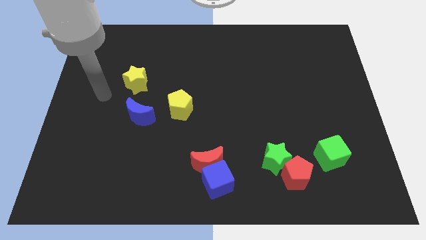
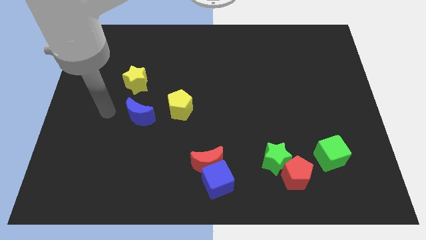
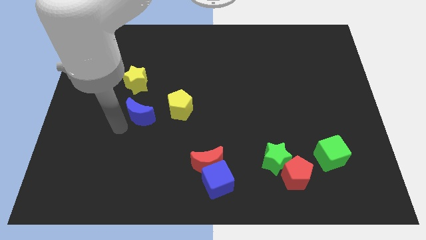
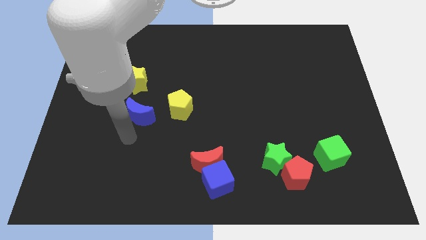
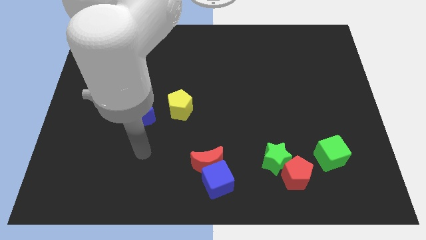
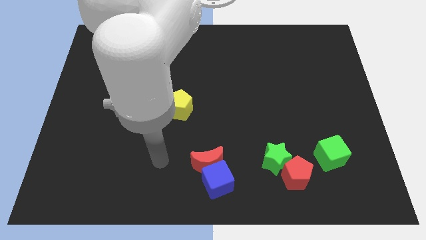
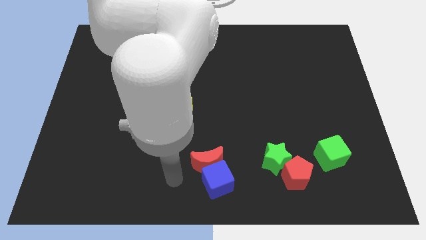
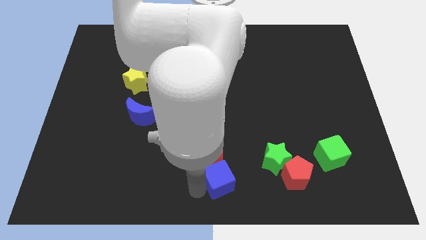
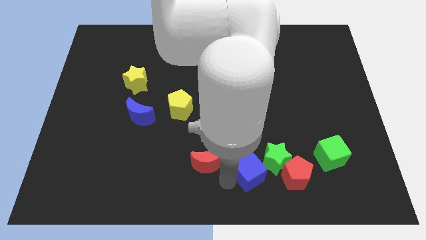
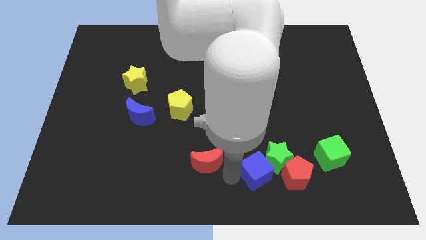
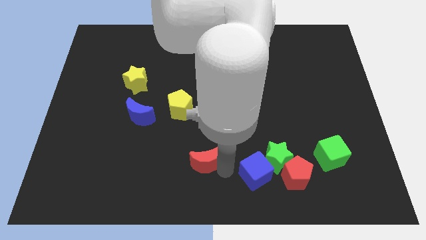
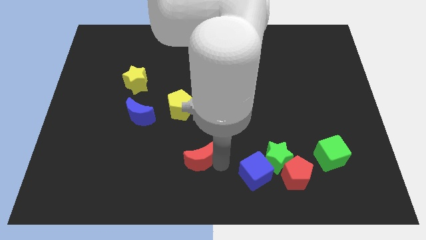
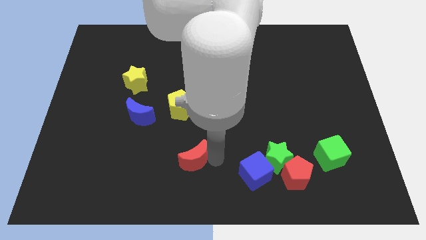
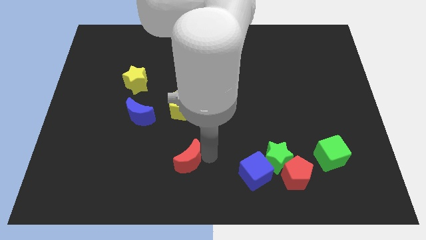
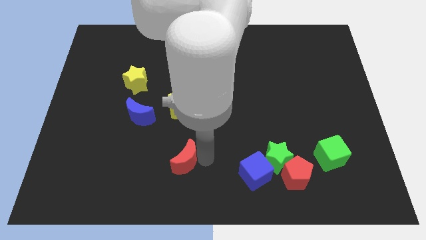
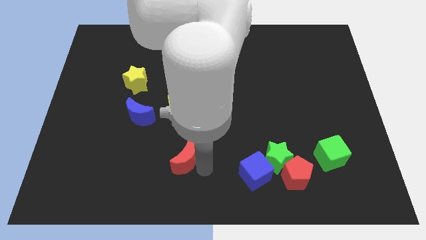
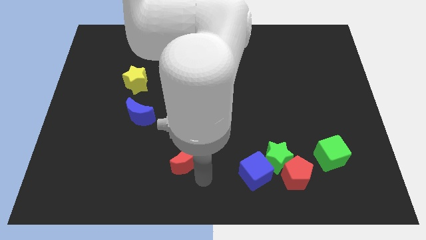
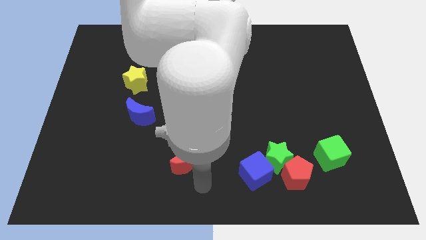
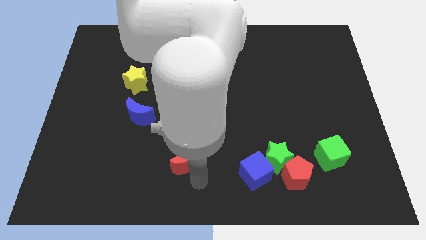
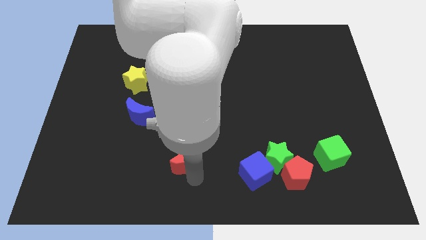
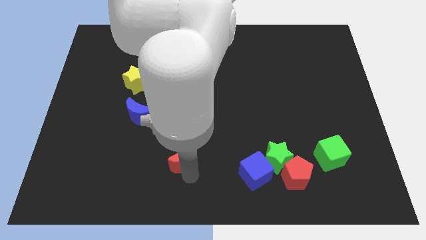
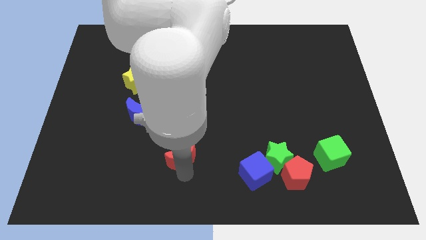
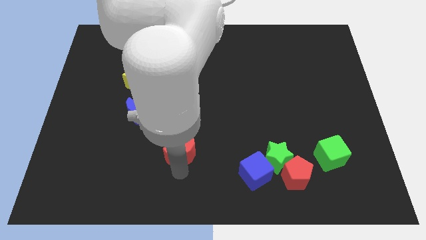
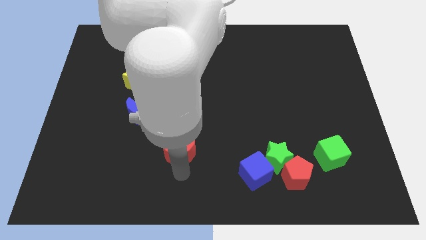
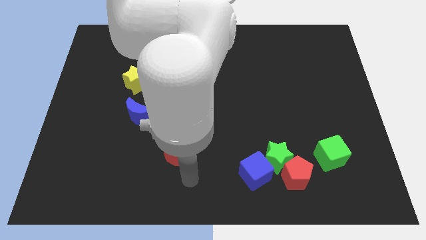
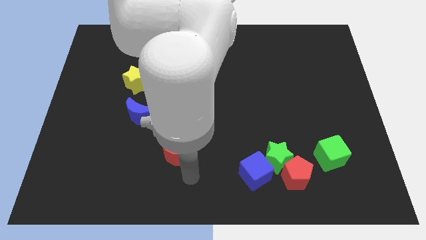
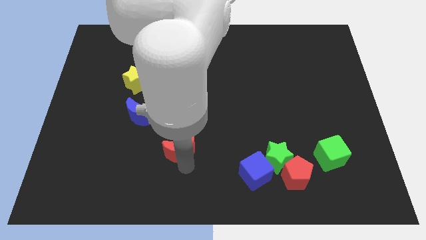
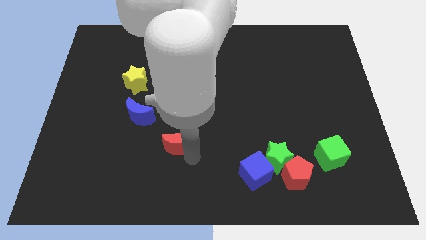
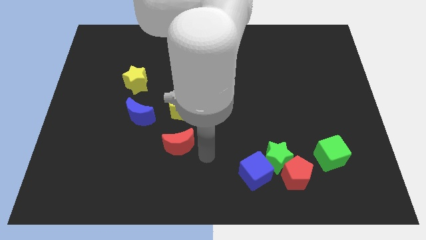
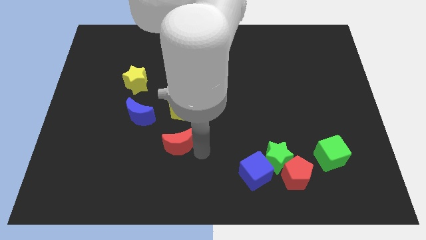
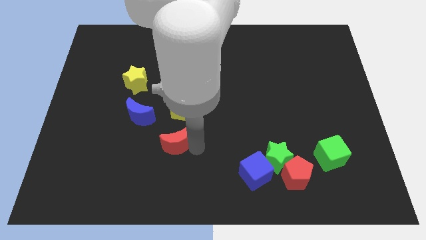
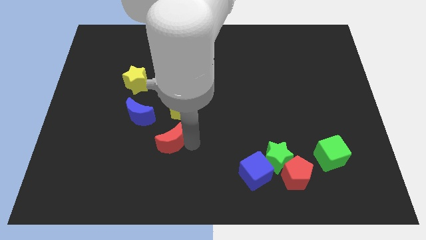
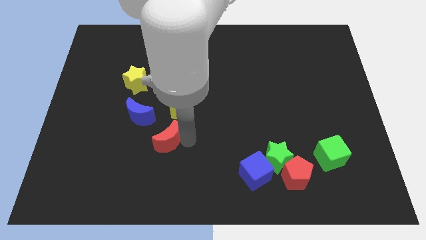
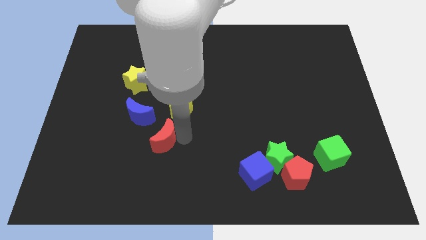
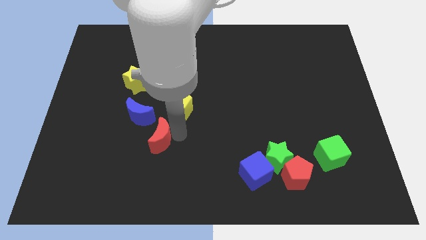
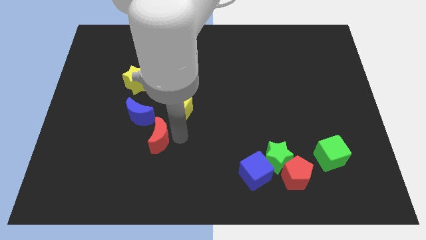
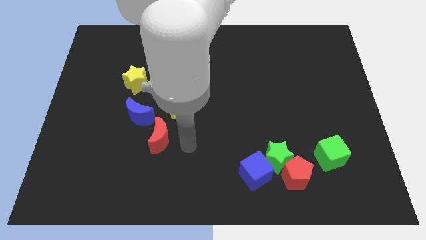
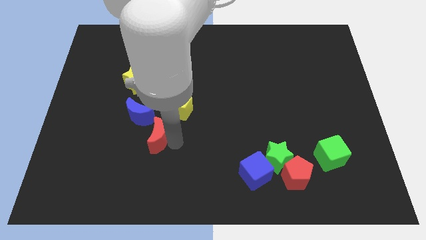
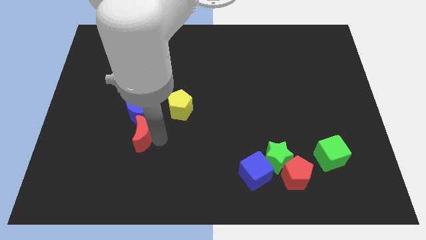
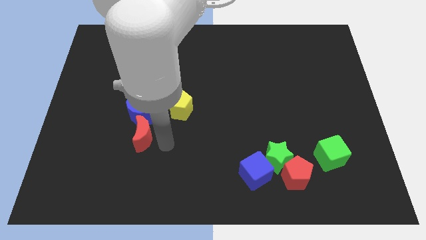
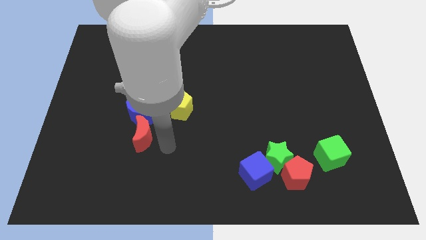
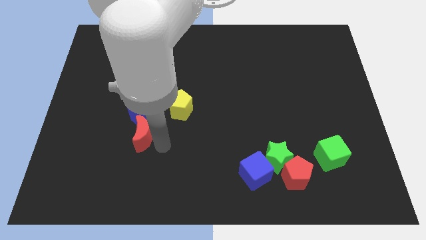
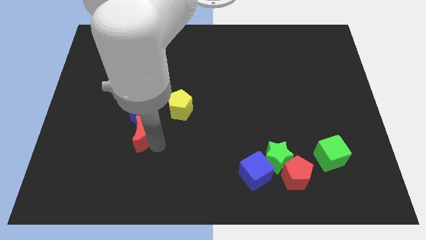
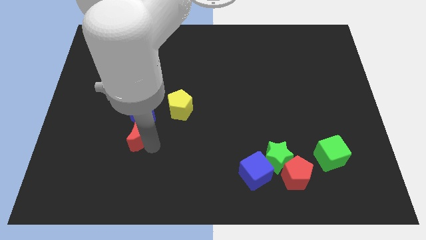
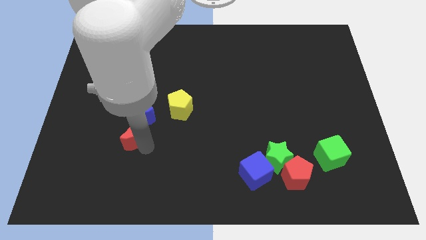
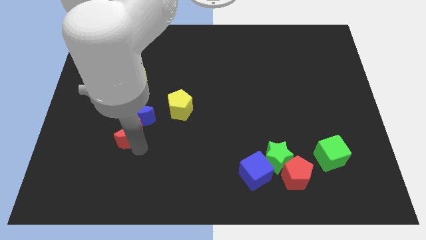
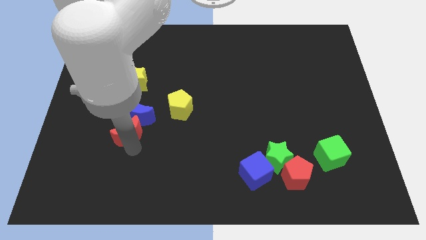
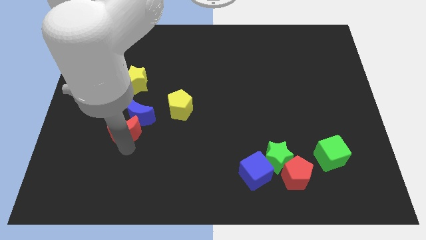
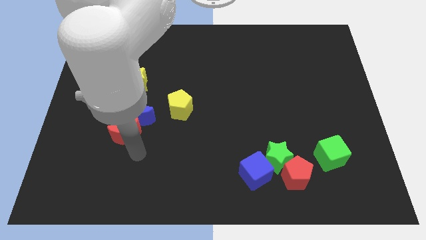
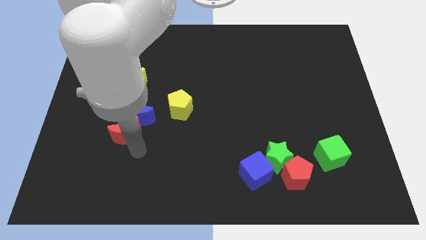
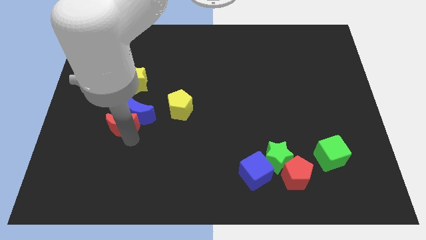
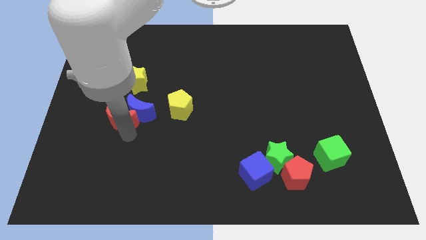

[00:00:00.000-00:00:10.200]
move the red moon up and left

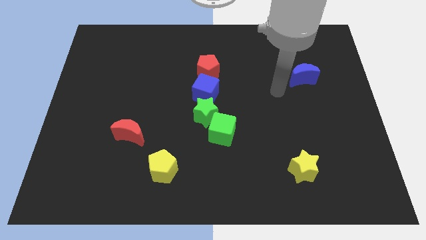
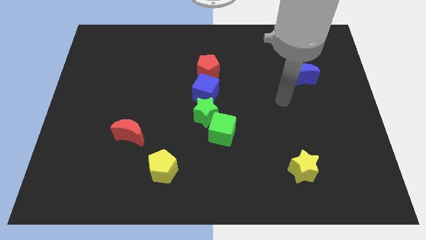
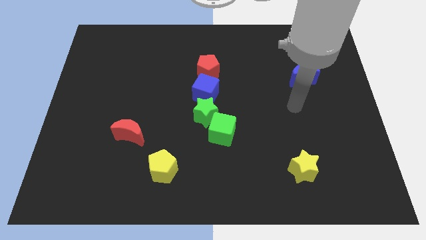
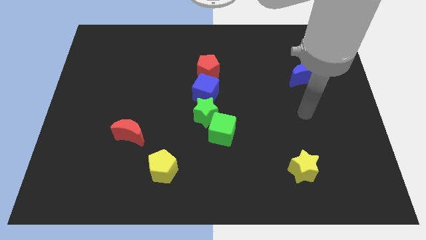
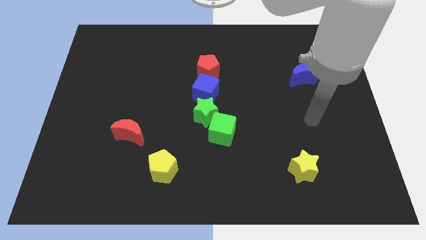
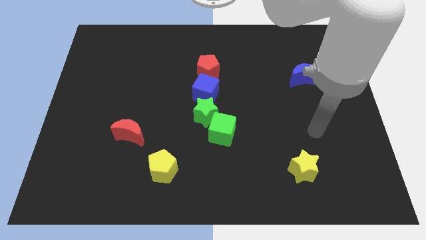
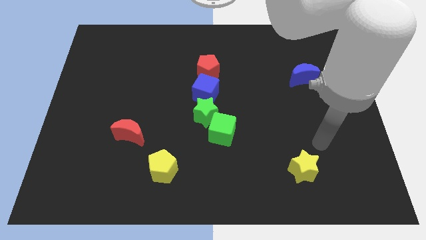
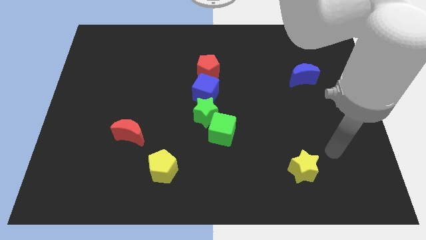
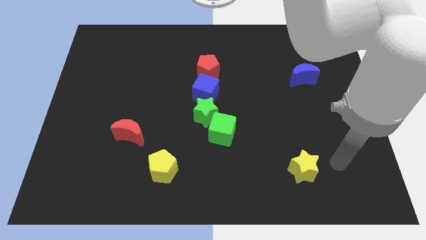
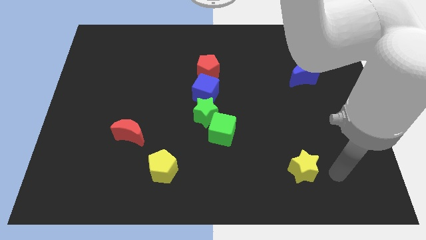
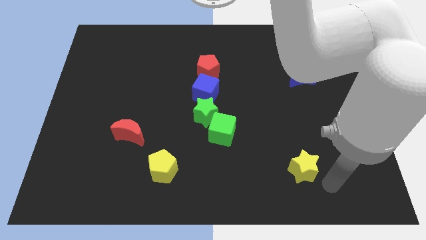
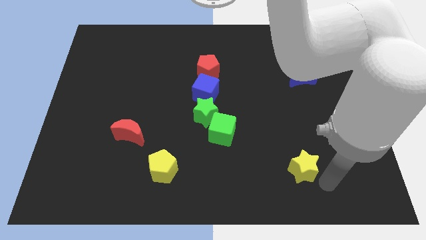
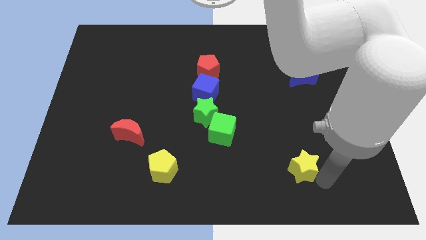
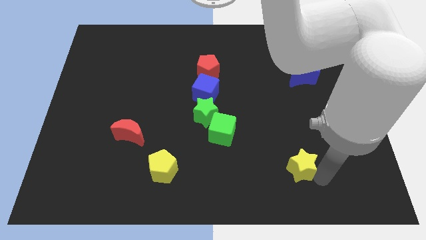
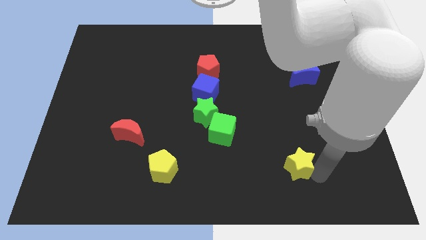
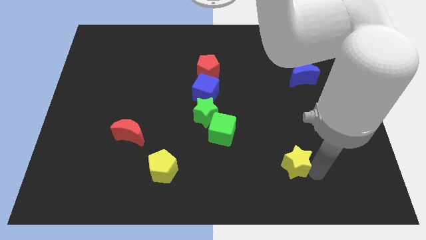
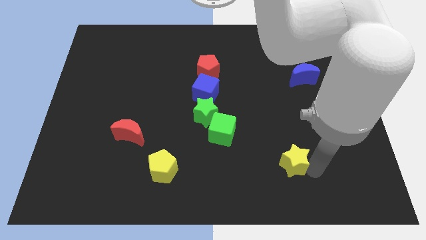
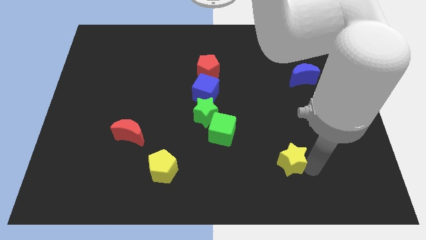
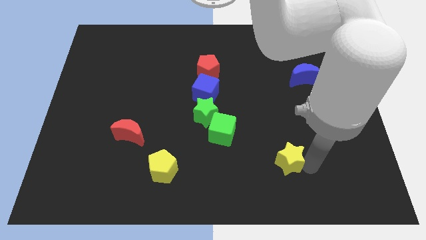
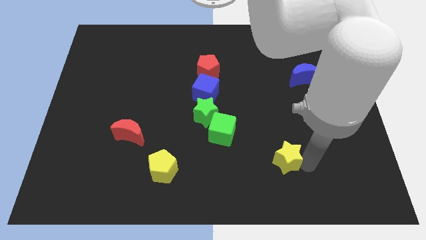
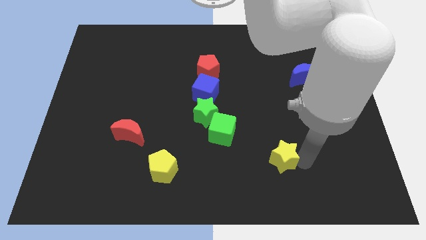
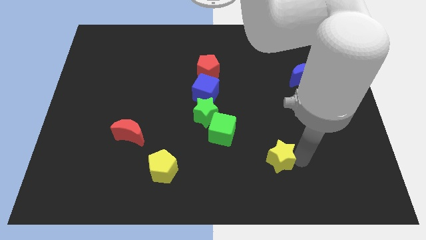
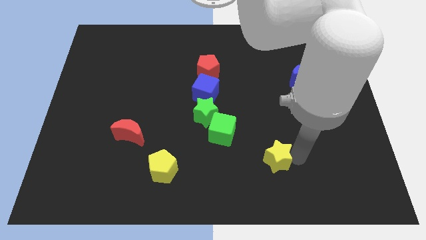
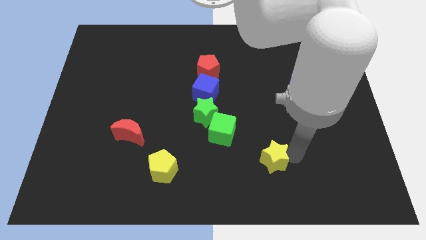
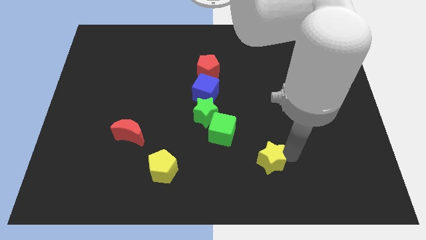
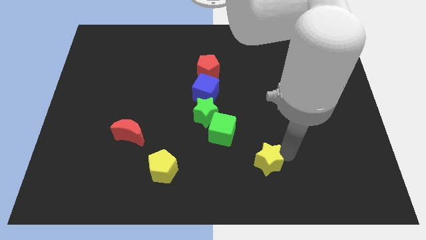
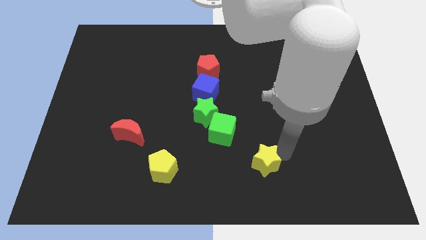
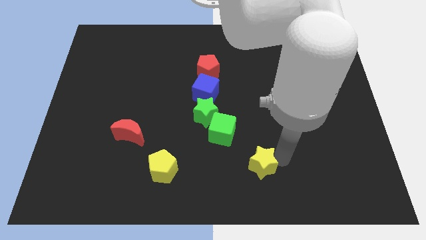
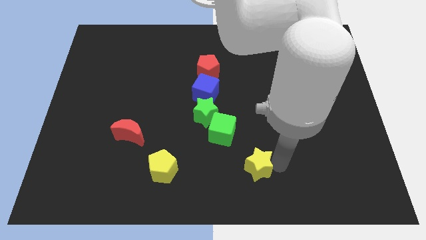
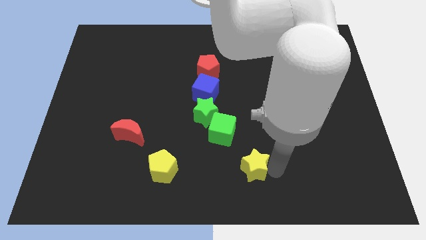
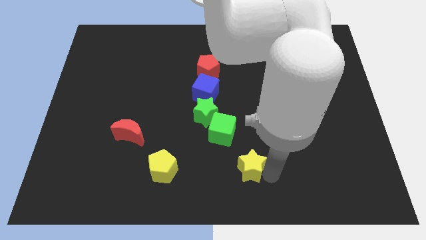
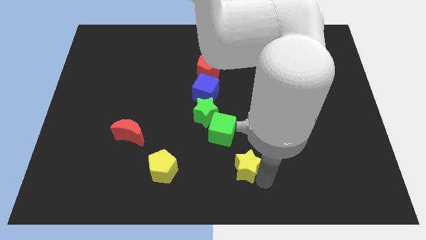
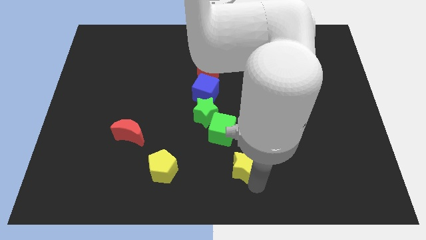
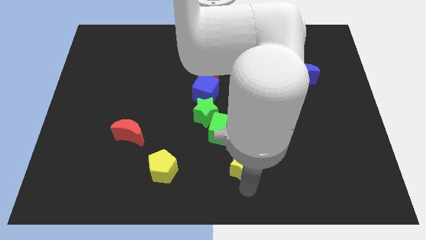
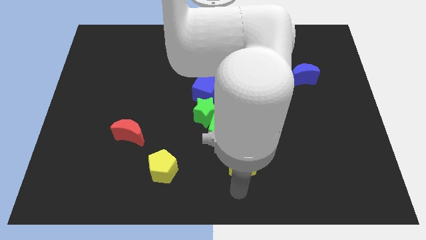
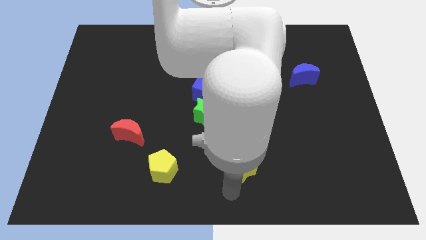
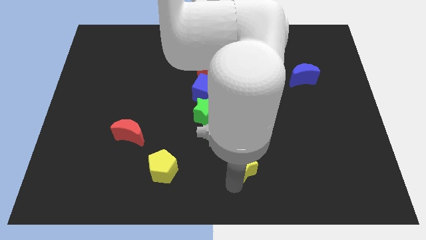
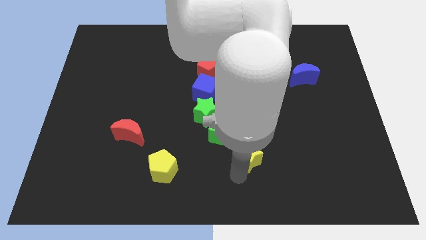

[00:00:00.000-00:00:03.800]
push the yellow star a little up and left
